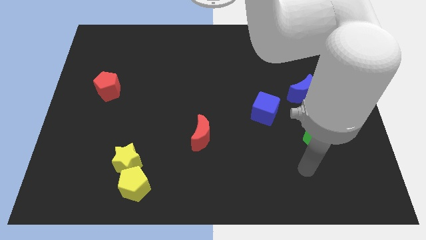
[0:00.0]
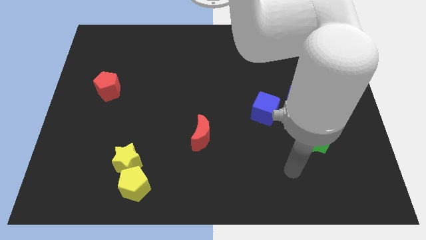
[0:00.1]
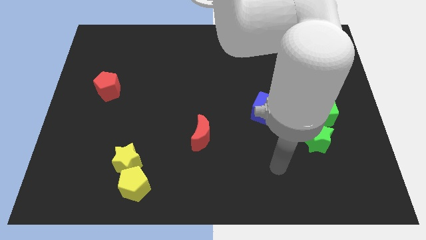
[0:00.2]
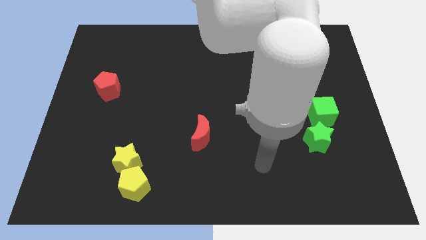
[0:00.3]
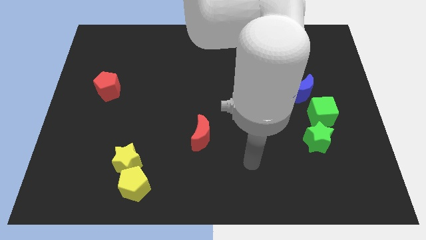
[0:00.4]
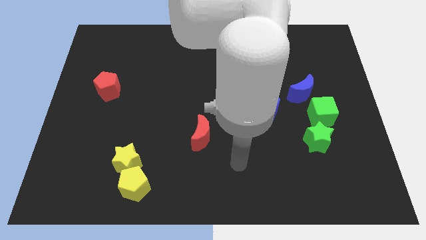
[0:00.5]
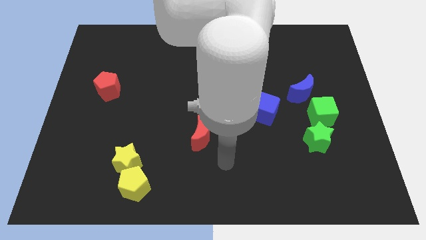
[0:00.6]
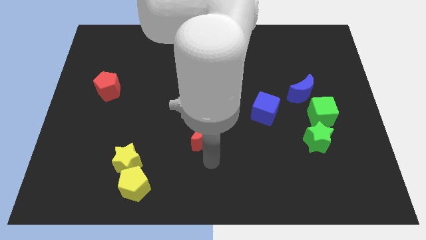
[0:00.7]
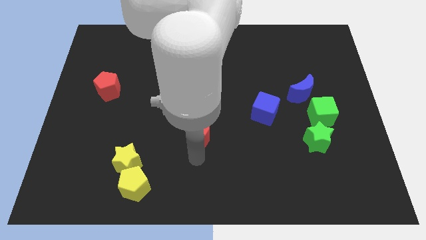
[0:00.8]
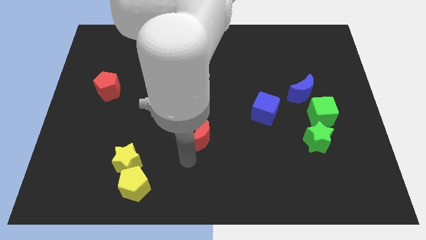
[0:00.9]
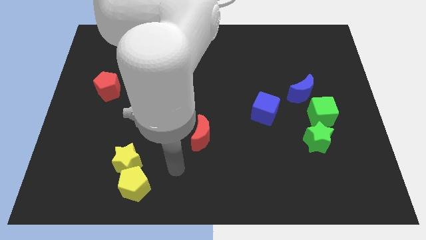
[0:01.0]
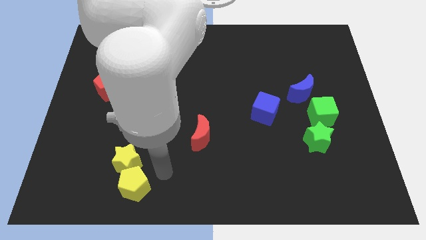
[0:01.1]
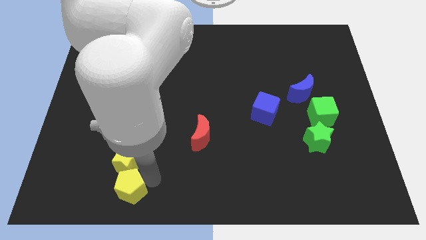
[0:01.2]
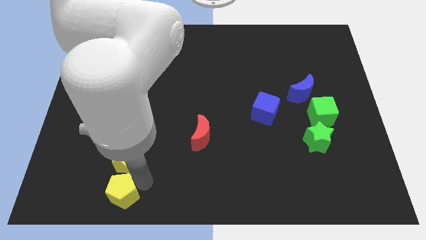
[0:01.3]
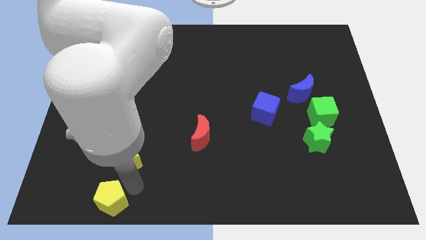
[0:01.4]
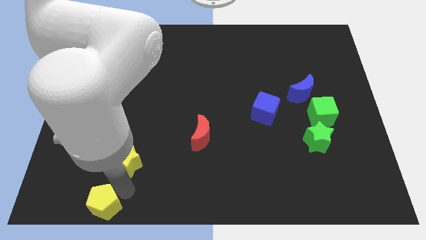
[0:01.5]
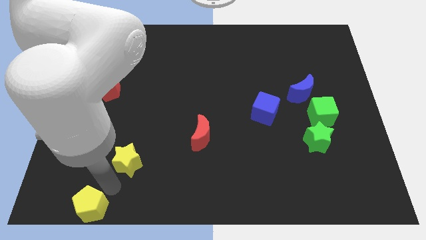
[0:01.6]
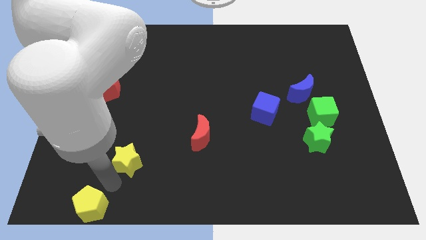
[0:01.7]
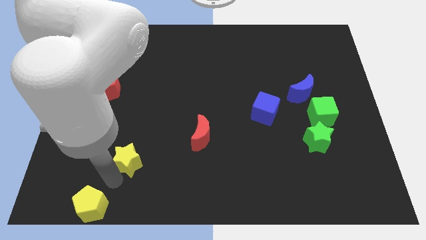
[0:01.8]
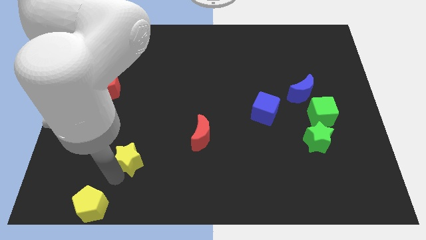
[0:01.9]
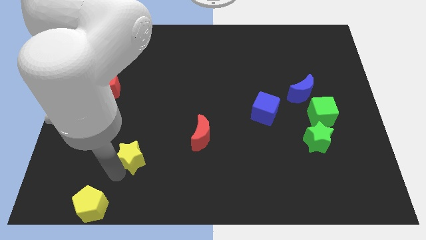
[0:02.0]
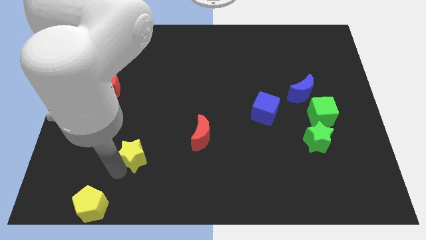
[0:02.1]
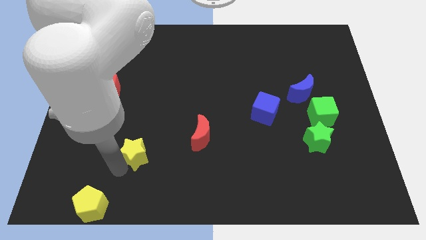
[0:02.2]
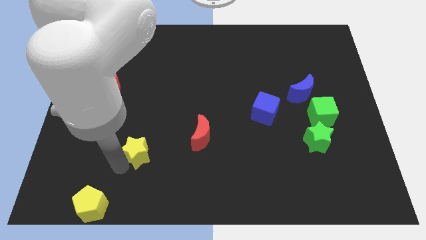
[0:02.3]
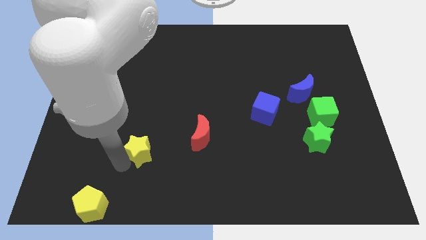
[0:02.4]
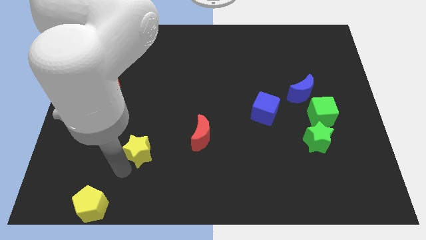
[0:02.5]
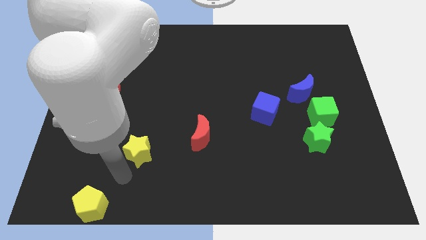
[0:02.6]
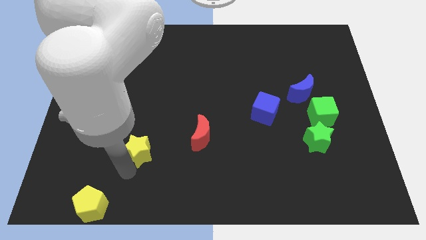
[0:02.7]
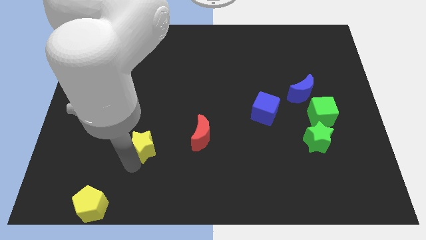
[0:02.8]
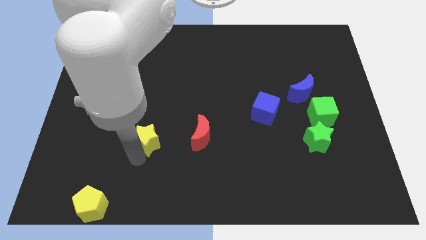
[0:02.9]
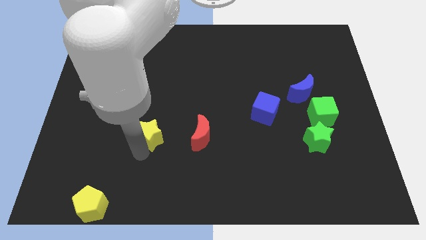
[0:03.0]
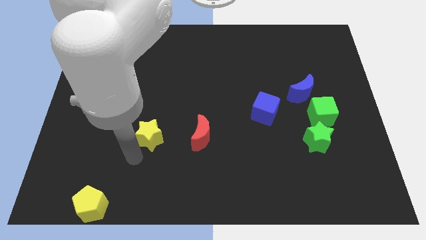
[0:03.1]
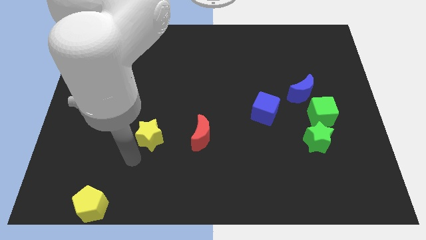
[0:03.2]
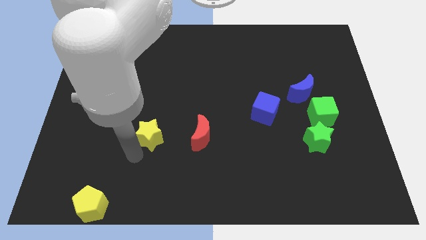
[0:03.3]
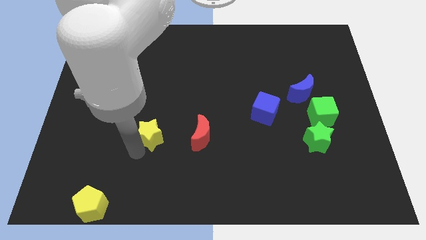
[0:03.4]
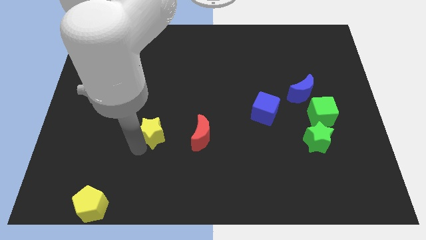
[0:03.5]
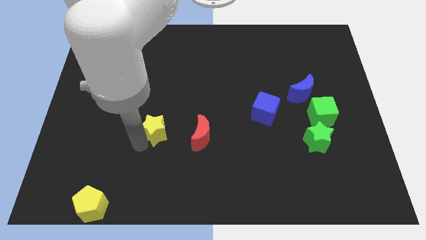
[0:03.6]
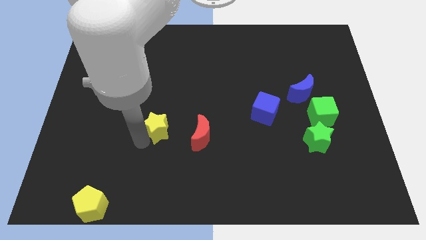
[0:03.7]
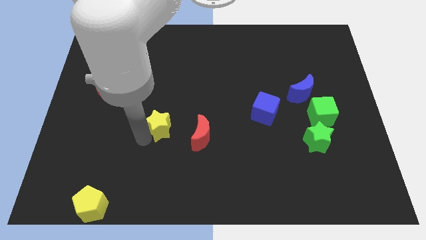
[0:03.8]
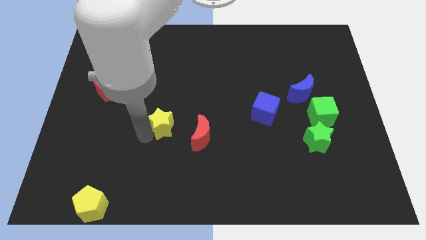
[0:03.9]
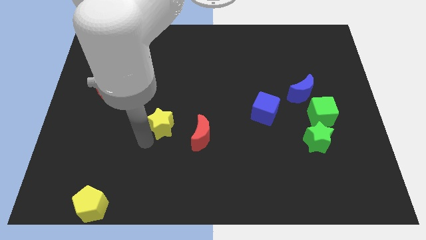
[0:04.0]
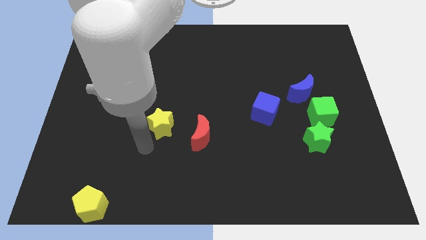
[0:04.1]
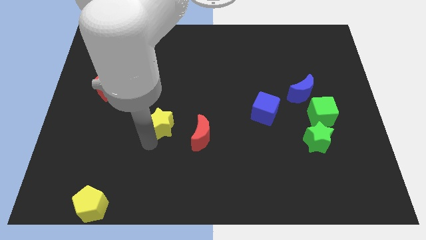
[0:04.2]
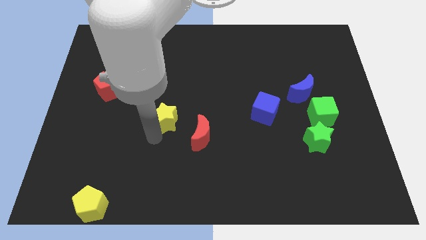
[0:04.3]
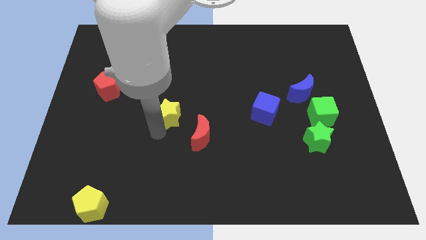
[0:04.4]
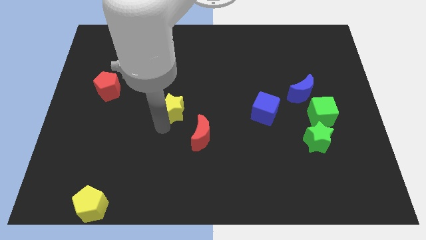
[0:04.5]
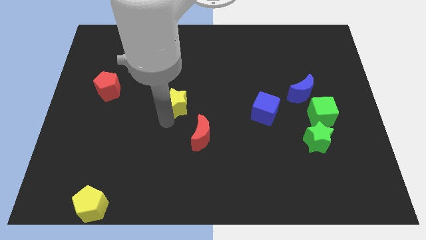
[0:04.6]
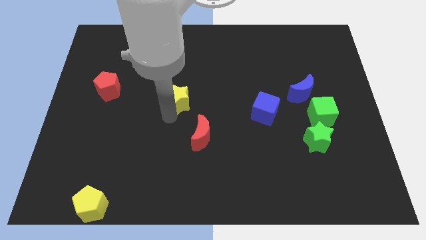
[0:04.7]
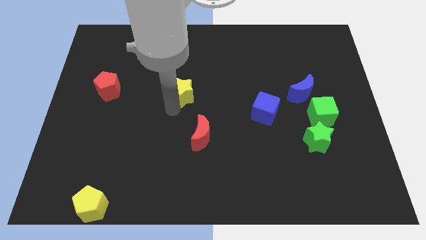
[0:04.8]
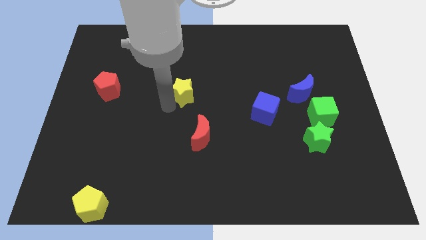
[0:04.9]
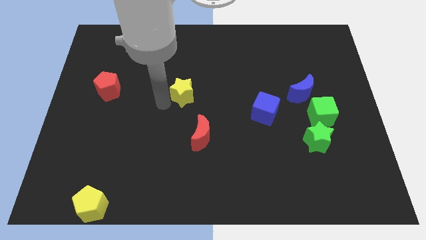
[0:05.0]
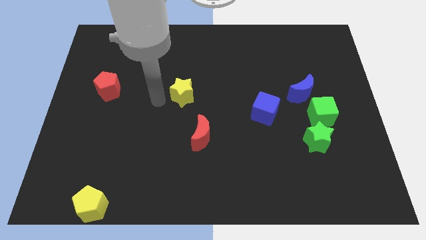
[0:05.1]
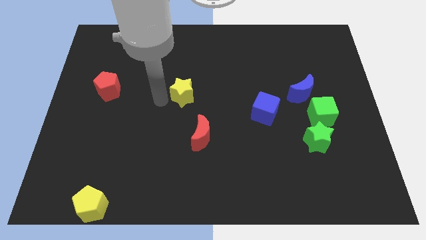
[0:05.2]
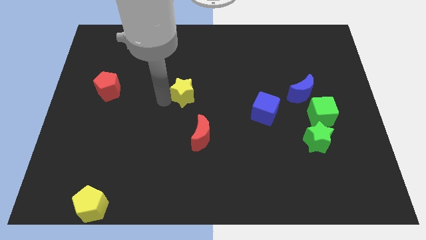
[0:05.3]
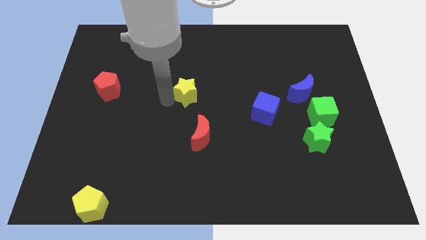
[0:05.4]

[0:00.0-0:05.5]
move the yellow star upwards and to the right

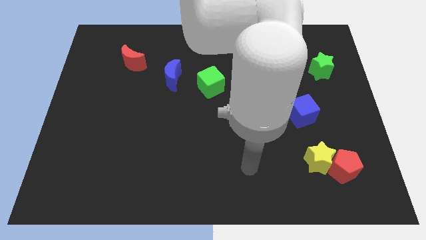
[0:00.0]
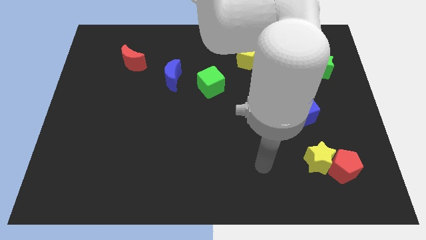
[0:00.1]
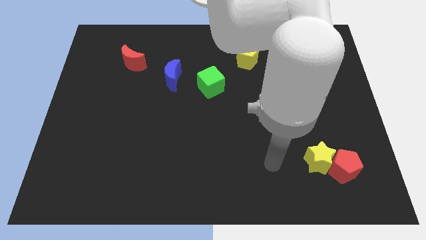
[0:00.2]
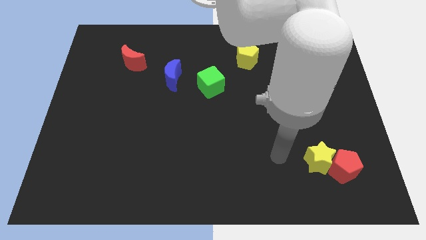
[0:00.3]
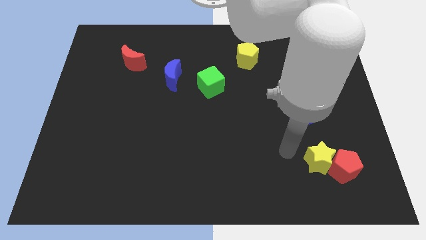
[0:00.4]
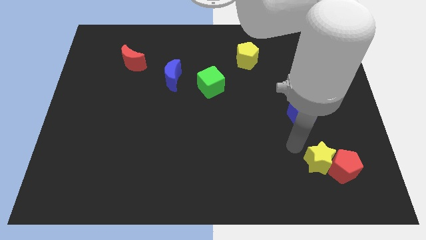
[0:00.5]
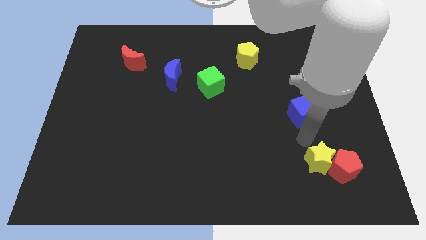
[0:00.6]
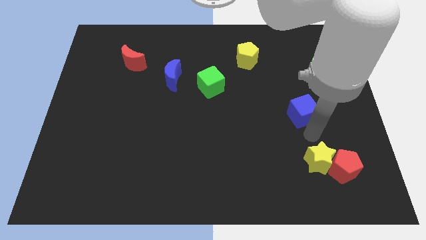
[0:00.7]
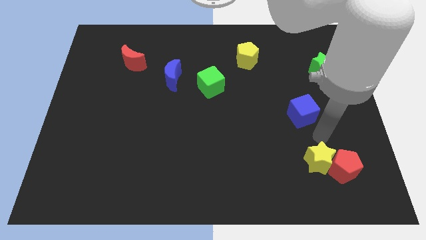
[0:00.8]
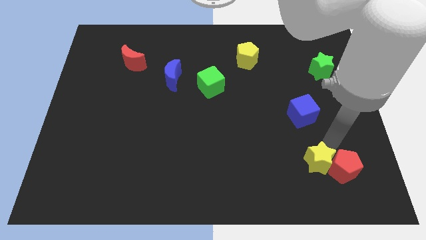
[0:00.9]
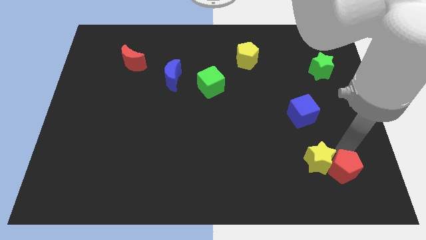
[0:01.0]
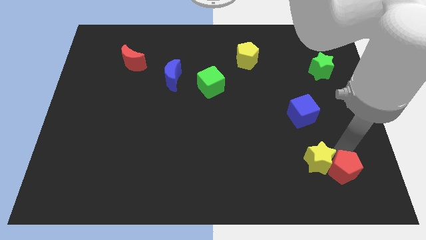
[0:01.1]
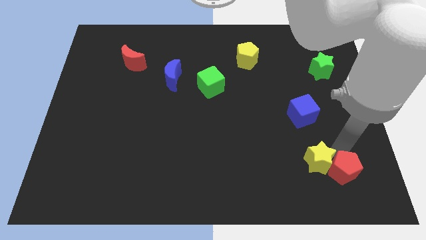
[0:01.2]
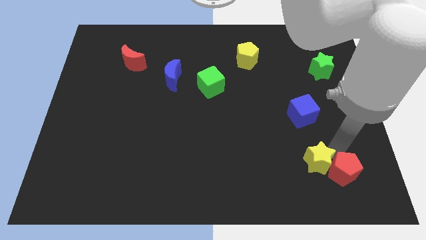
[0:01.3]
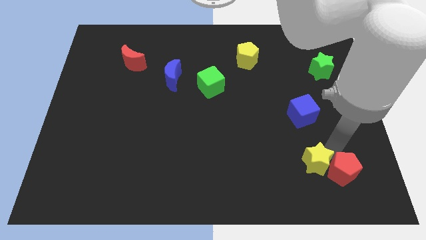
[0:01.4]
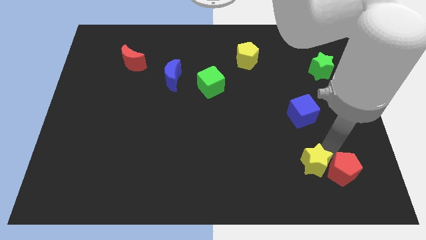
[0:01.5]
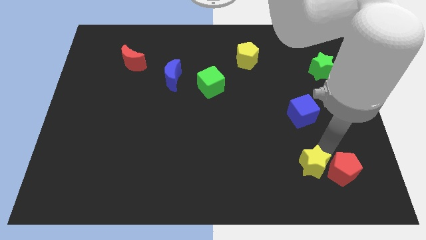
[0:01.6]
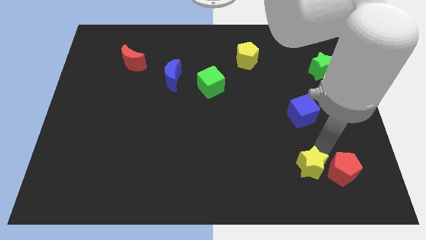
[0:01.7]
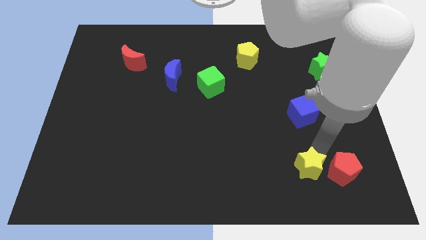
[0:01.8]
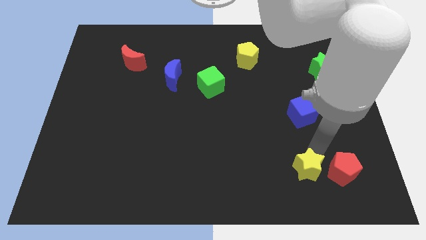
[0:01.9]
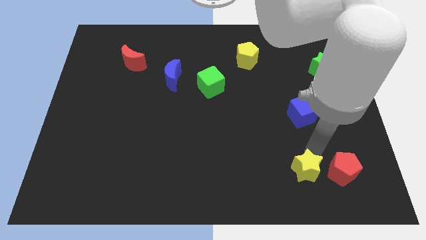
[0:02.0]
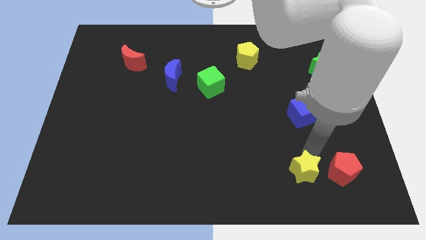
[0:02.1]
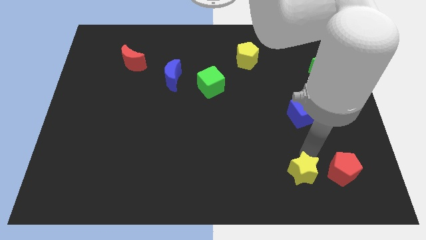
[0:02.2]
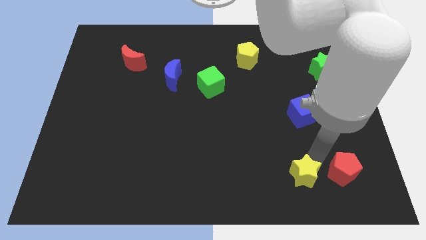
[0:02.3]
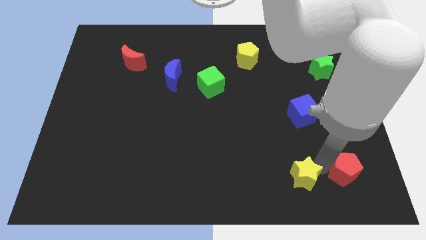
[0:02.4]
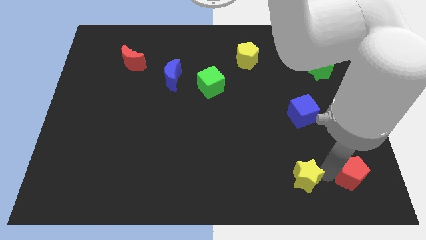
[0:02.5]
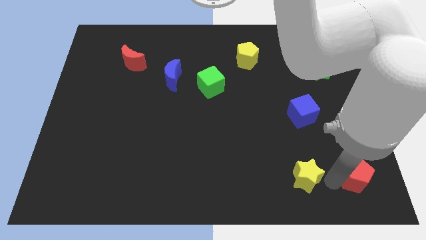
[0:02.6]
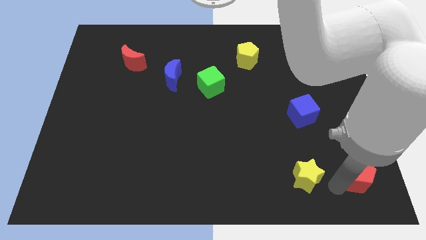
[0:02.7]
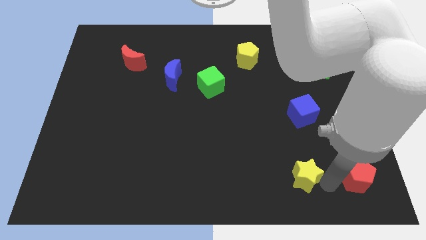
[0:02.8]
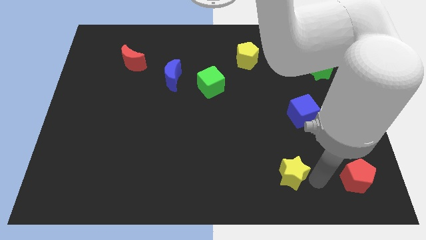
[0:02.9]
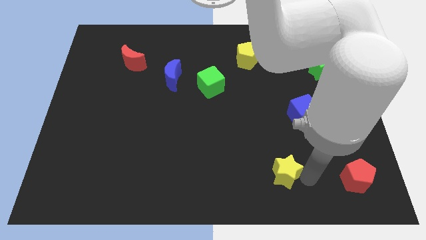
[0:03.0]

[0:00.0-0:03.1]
push the yellow star a little bit left
